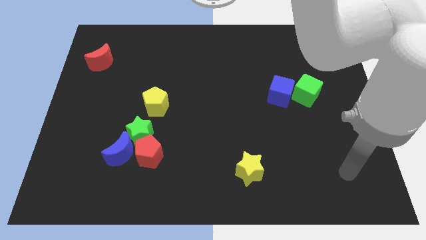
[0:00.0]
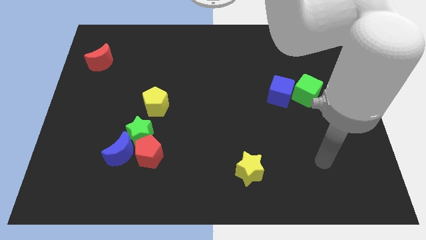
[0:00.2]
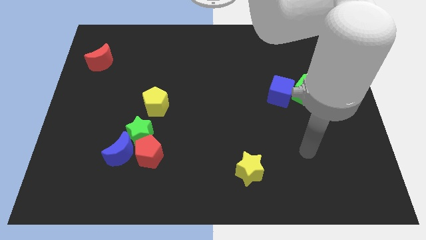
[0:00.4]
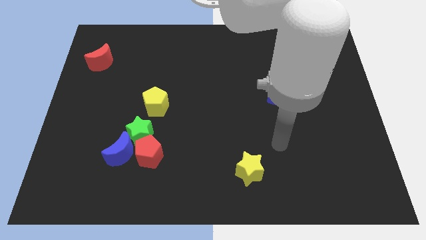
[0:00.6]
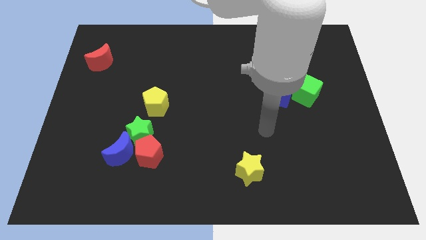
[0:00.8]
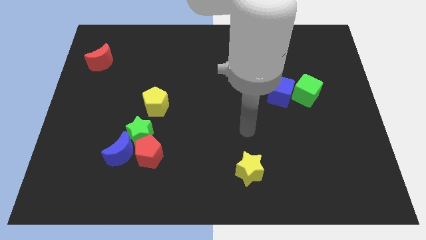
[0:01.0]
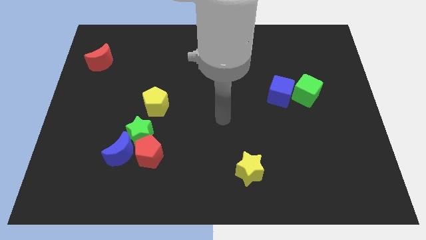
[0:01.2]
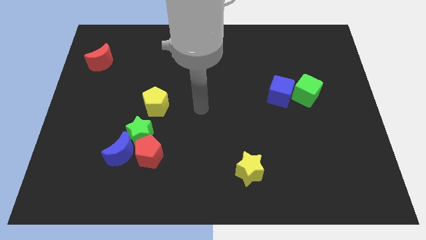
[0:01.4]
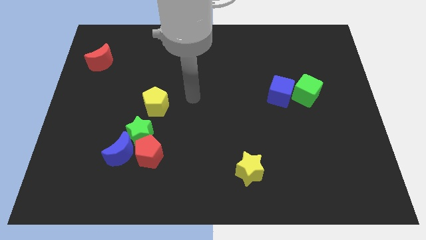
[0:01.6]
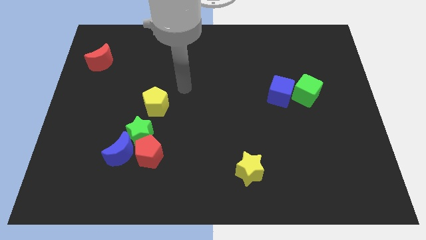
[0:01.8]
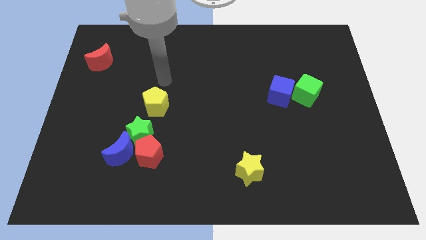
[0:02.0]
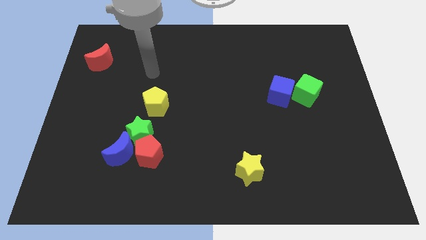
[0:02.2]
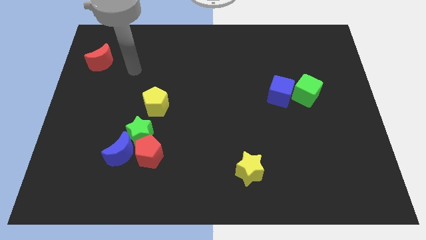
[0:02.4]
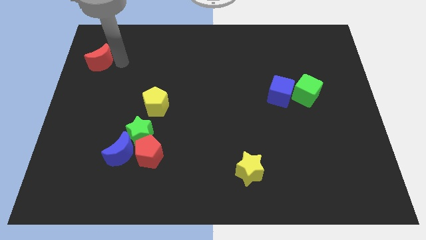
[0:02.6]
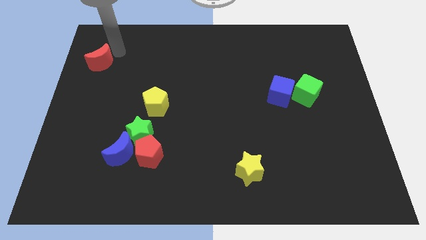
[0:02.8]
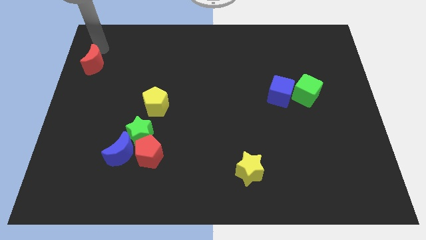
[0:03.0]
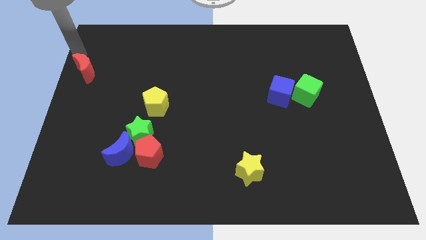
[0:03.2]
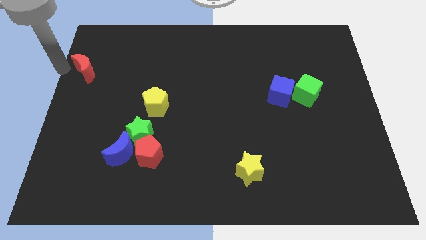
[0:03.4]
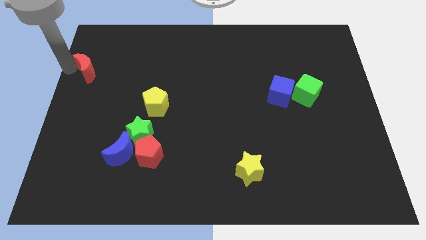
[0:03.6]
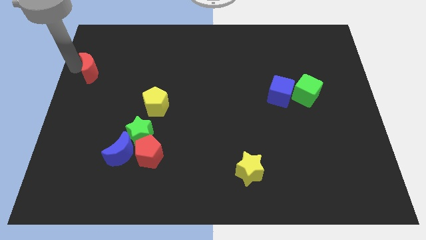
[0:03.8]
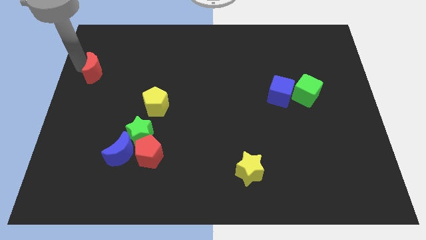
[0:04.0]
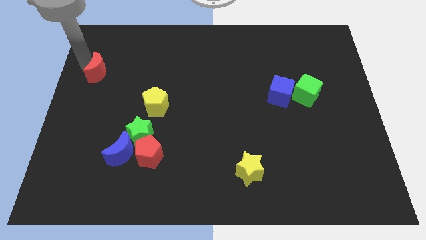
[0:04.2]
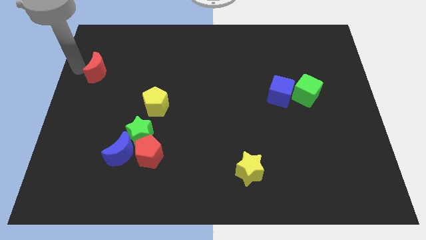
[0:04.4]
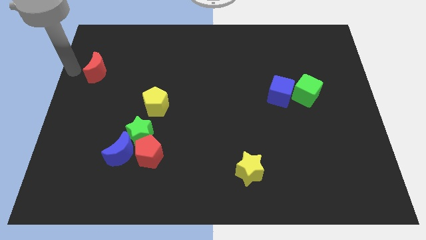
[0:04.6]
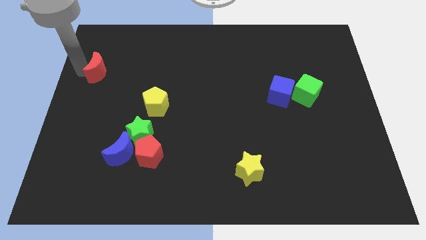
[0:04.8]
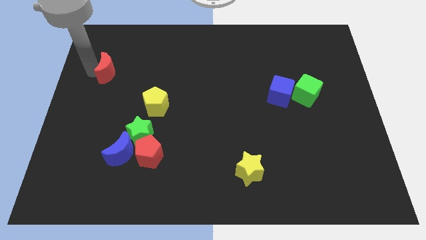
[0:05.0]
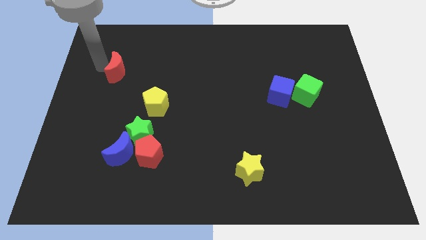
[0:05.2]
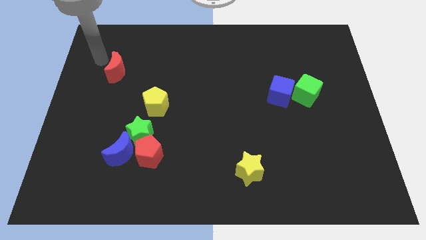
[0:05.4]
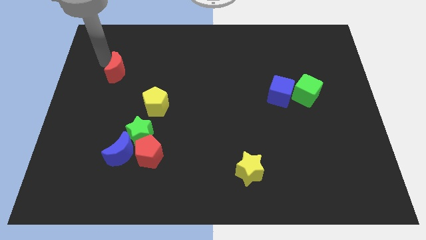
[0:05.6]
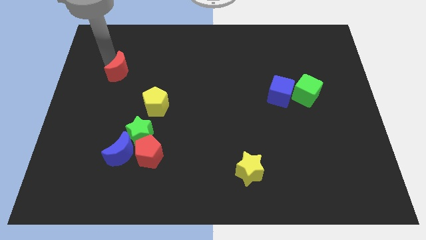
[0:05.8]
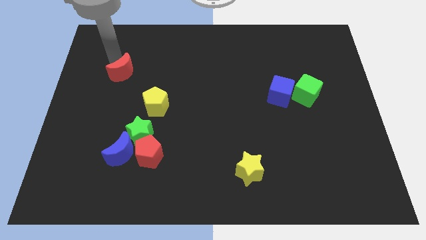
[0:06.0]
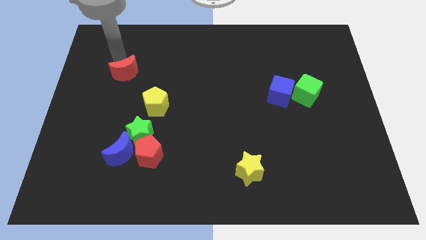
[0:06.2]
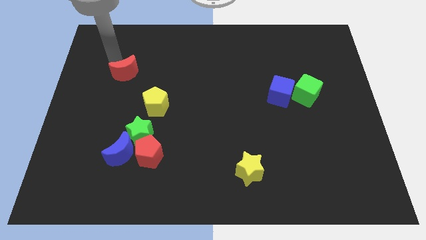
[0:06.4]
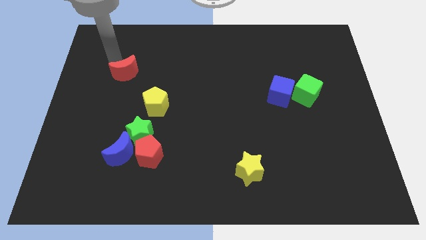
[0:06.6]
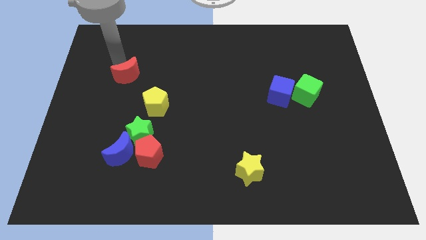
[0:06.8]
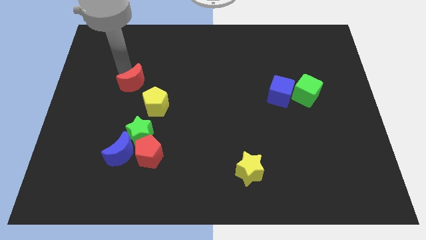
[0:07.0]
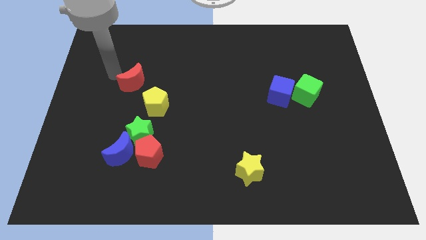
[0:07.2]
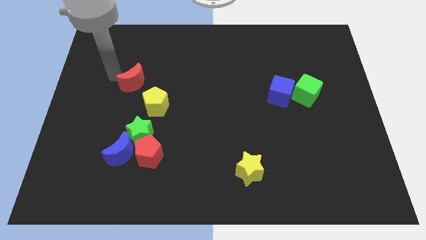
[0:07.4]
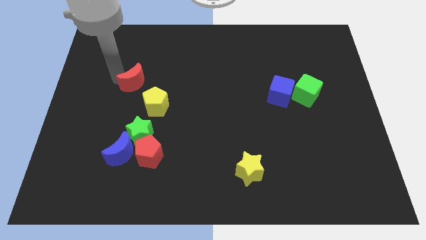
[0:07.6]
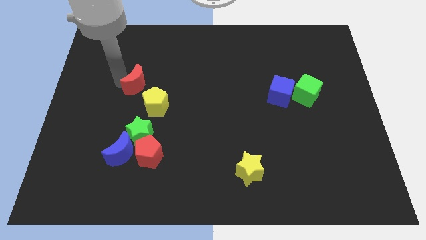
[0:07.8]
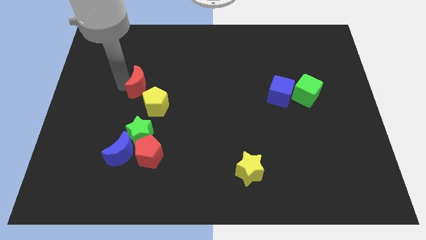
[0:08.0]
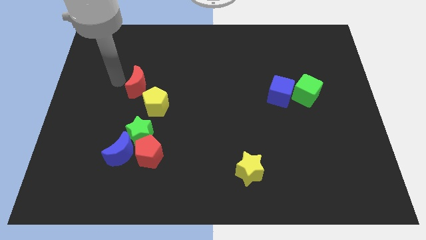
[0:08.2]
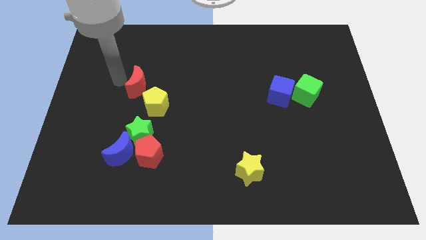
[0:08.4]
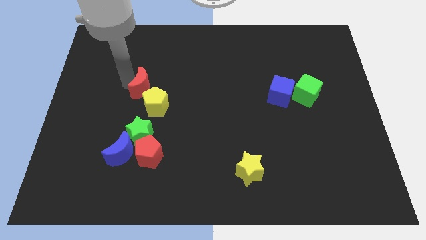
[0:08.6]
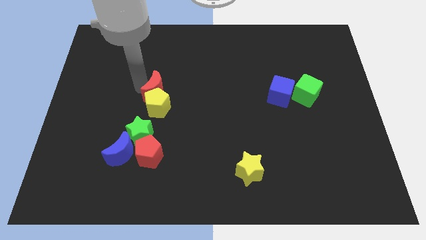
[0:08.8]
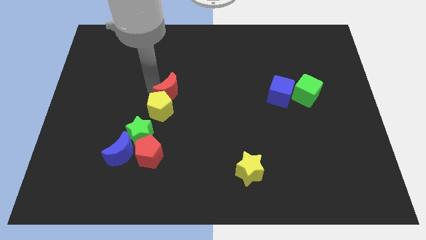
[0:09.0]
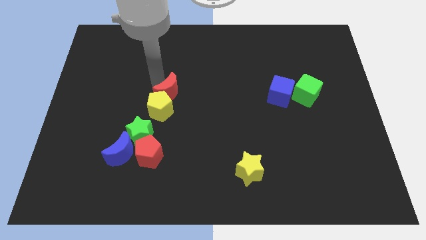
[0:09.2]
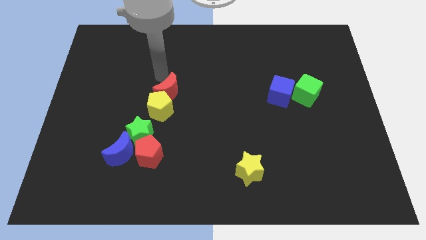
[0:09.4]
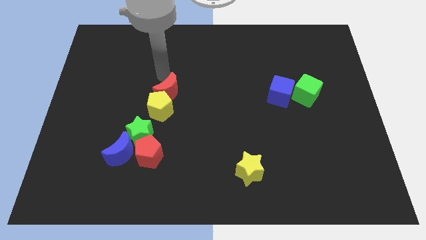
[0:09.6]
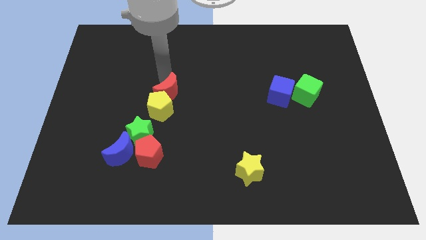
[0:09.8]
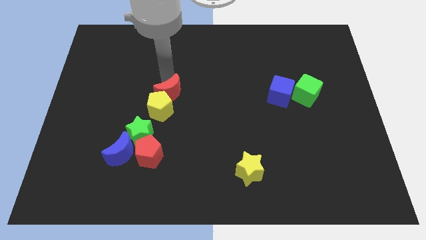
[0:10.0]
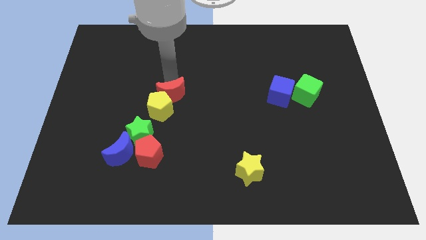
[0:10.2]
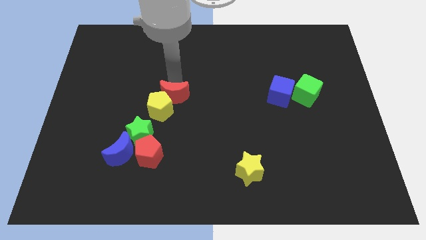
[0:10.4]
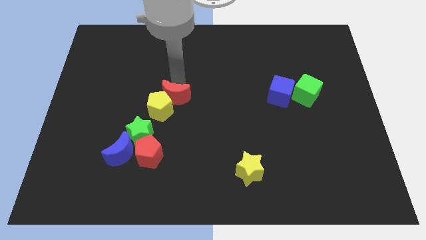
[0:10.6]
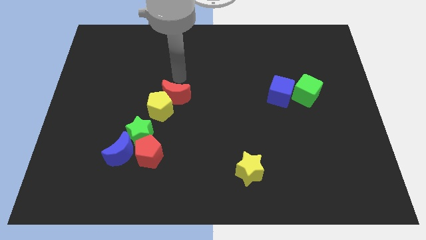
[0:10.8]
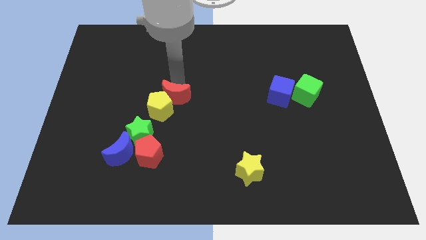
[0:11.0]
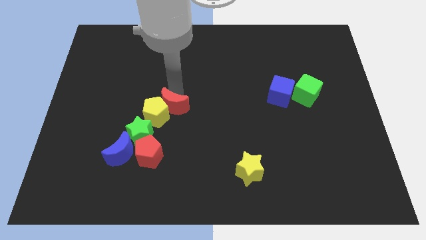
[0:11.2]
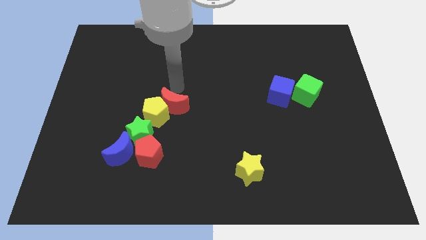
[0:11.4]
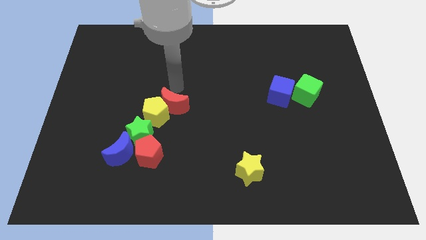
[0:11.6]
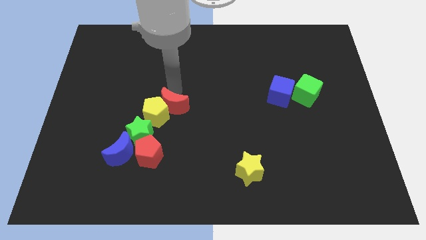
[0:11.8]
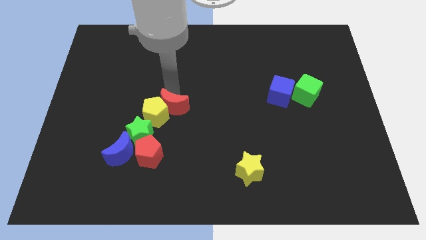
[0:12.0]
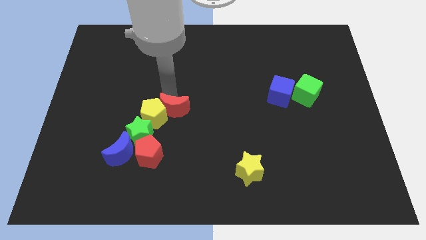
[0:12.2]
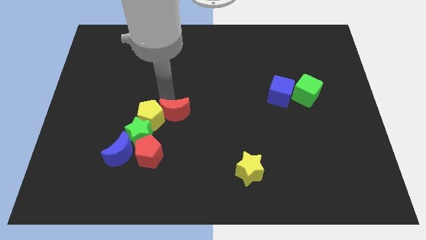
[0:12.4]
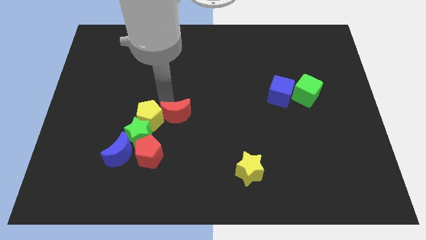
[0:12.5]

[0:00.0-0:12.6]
move the red moon to the top right side of the red pentagon

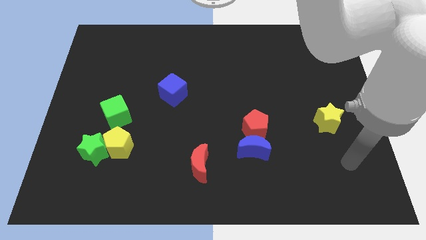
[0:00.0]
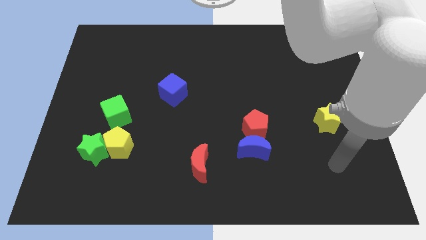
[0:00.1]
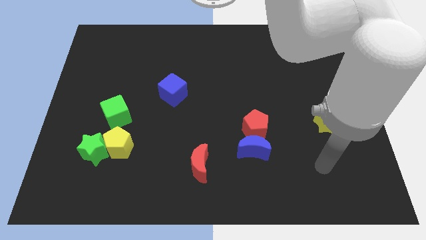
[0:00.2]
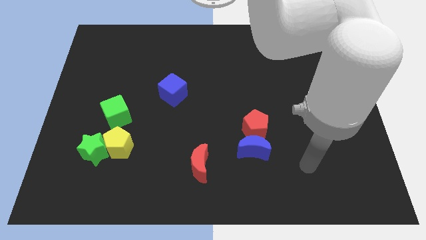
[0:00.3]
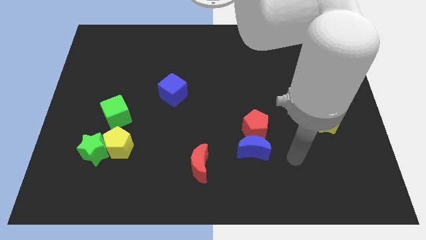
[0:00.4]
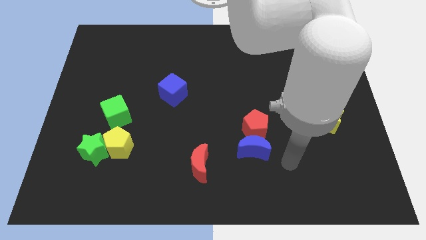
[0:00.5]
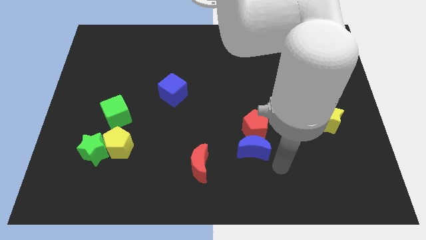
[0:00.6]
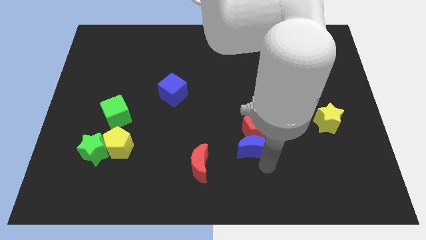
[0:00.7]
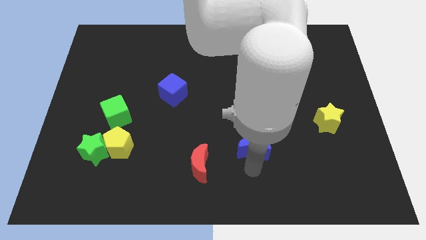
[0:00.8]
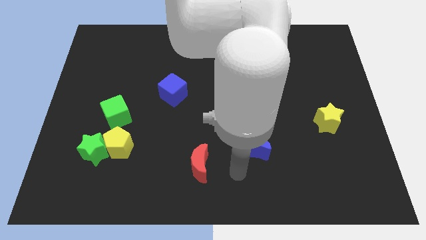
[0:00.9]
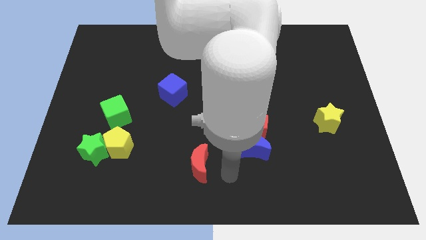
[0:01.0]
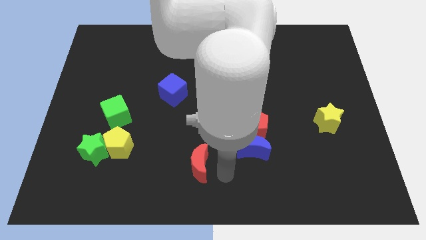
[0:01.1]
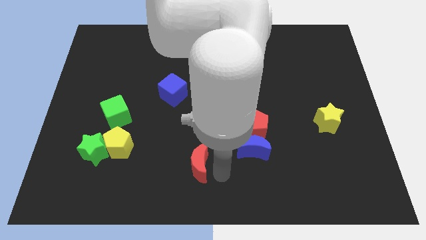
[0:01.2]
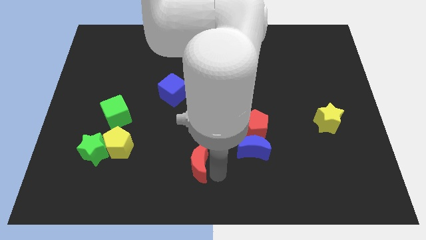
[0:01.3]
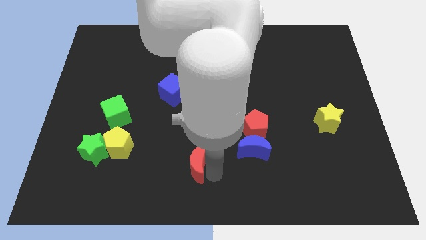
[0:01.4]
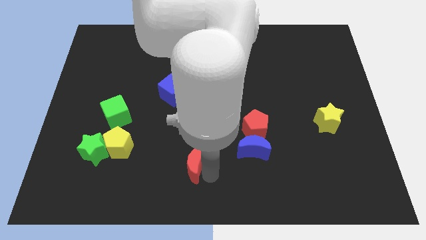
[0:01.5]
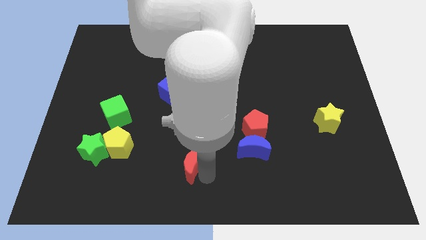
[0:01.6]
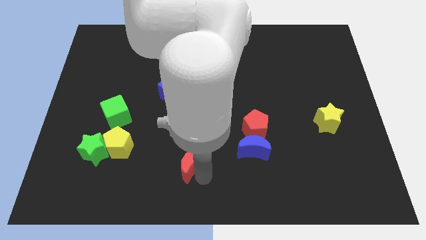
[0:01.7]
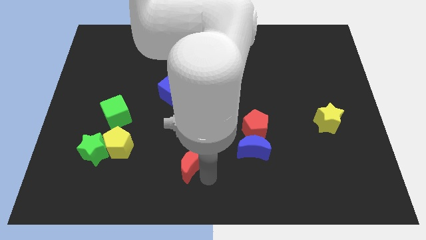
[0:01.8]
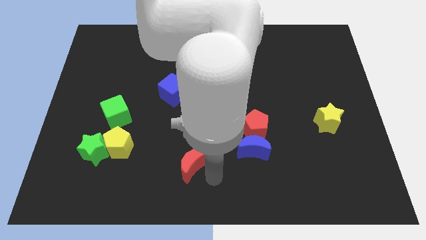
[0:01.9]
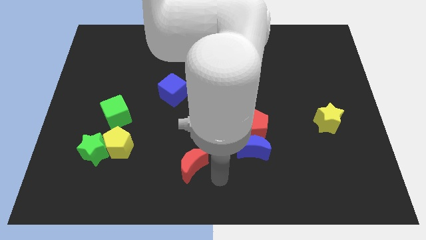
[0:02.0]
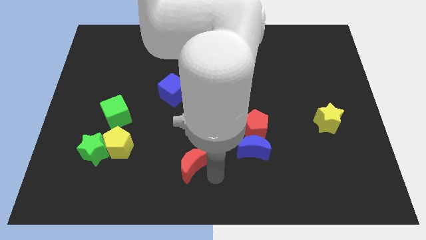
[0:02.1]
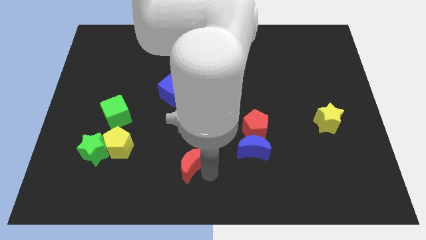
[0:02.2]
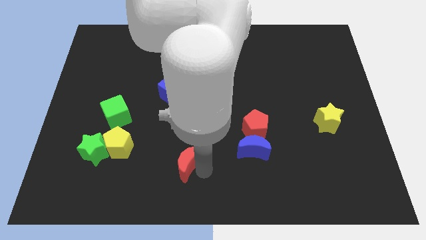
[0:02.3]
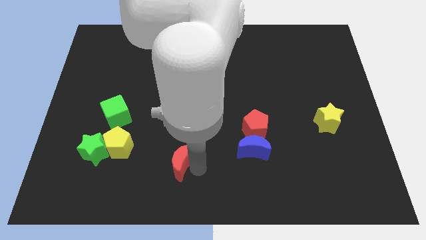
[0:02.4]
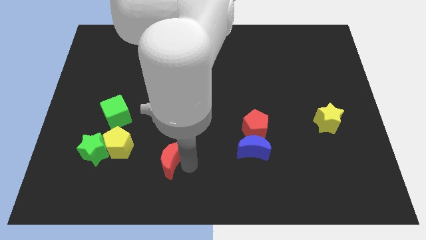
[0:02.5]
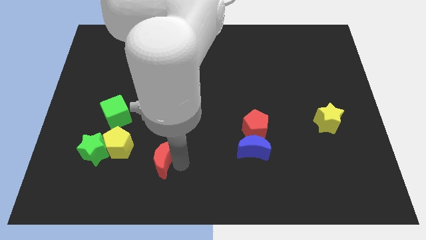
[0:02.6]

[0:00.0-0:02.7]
move the red moon just right of the green star
